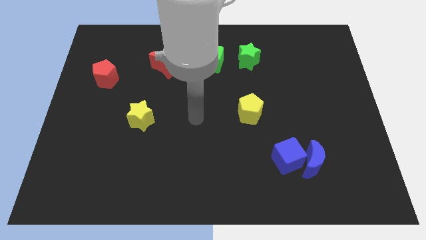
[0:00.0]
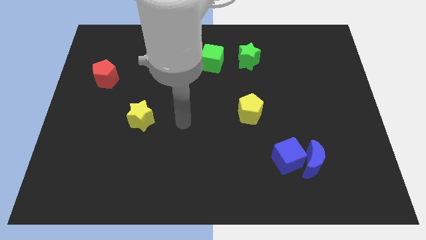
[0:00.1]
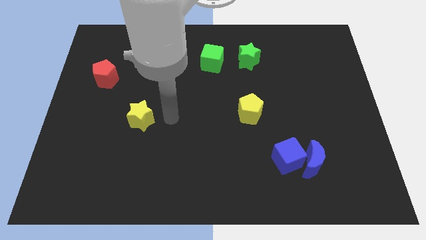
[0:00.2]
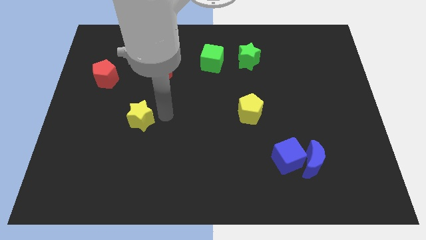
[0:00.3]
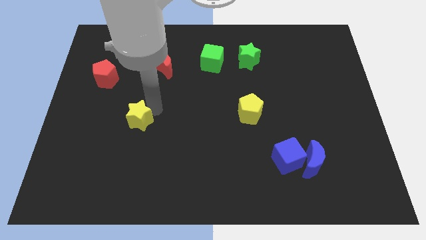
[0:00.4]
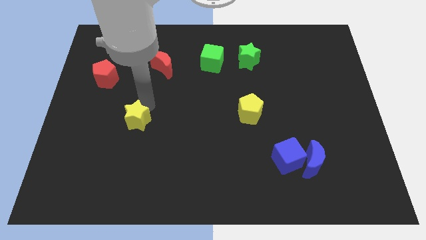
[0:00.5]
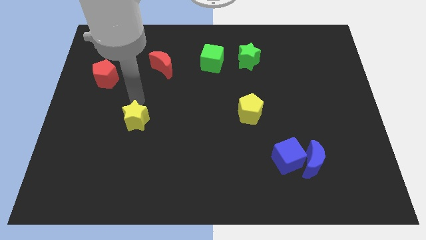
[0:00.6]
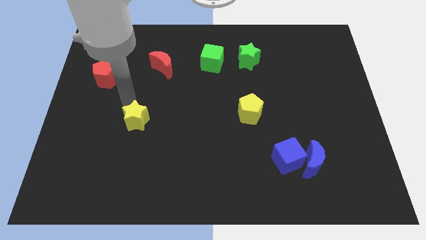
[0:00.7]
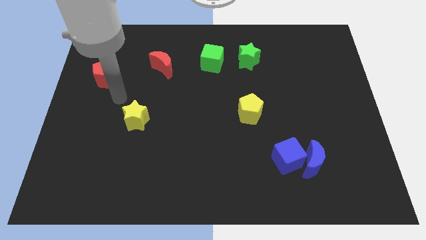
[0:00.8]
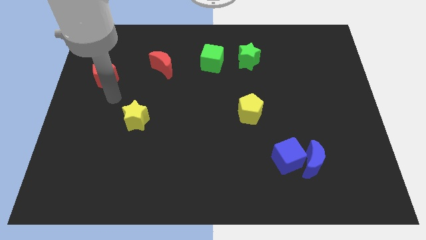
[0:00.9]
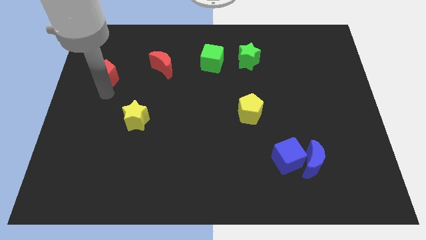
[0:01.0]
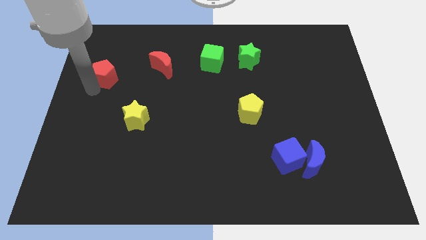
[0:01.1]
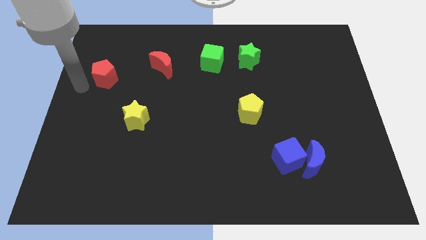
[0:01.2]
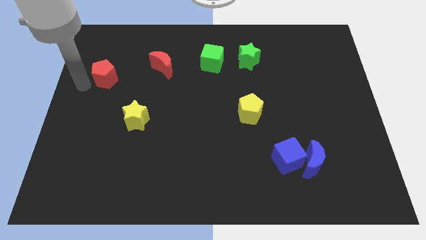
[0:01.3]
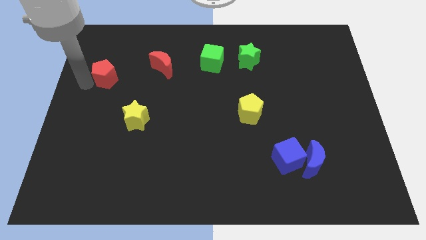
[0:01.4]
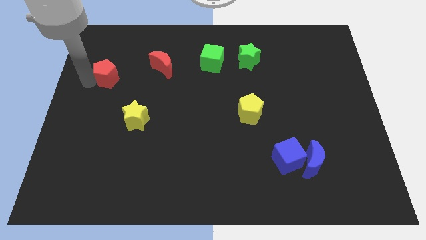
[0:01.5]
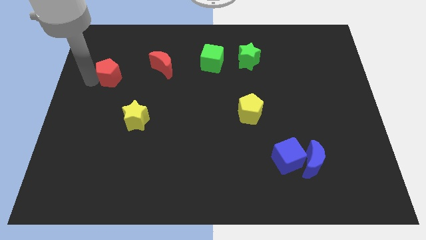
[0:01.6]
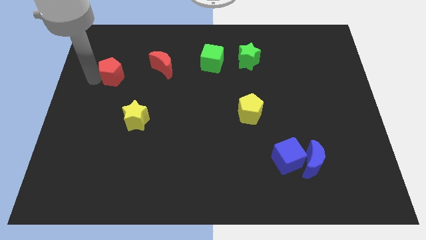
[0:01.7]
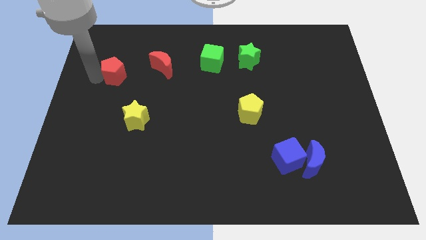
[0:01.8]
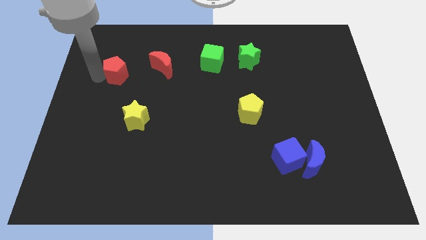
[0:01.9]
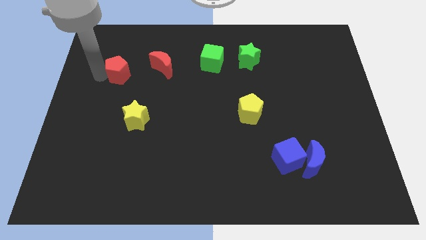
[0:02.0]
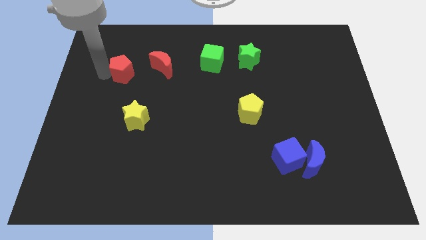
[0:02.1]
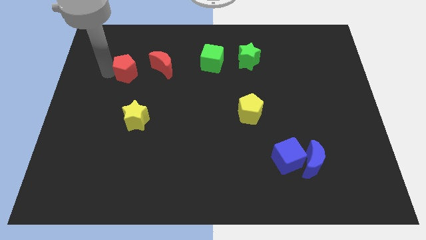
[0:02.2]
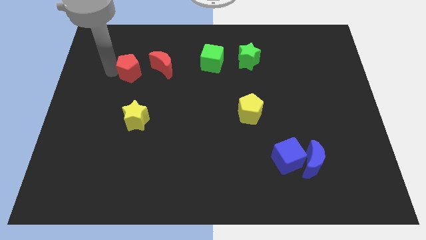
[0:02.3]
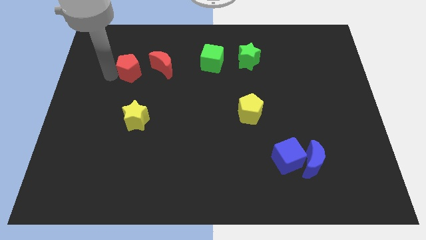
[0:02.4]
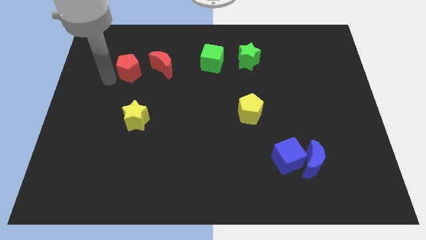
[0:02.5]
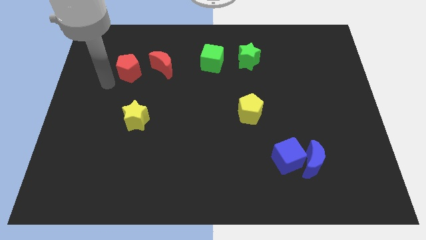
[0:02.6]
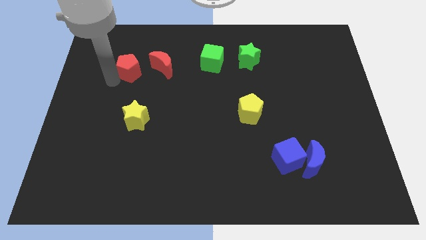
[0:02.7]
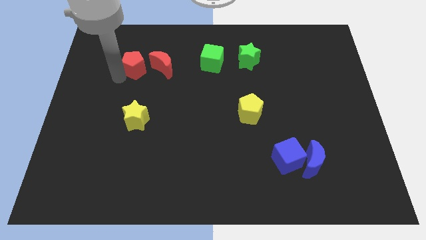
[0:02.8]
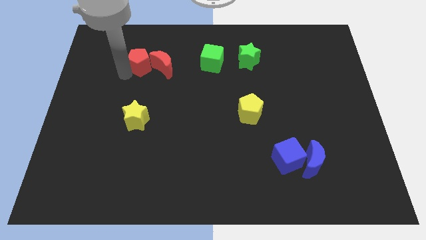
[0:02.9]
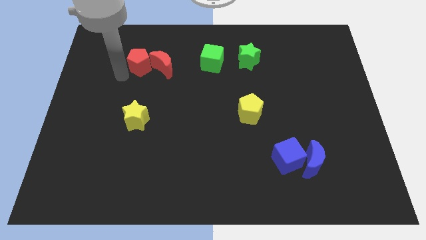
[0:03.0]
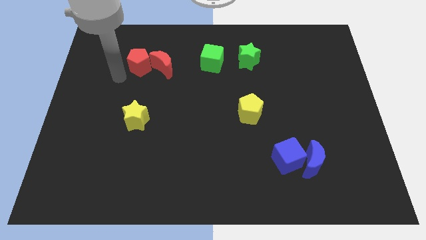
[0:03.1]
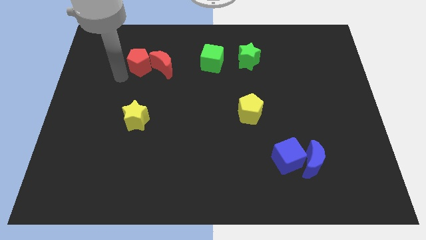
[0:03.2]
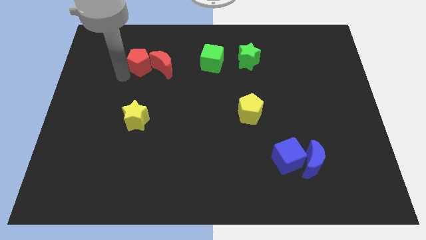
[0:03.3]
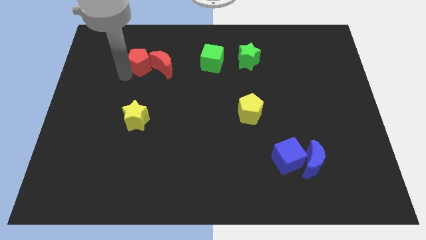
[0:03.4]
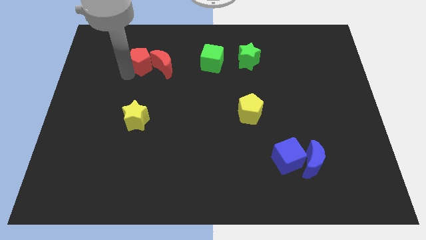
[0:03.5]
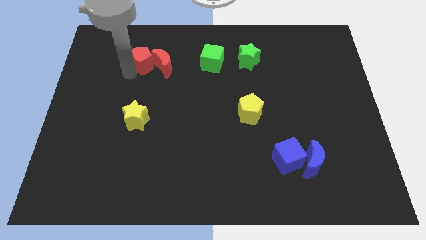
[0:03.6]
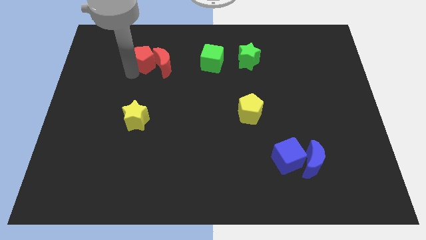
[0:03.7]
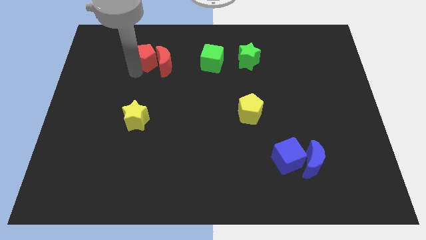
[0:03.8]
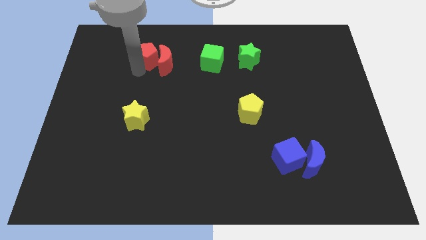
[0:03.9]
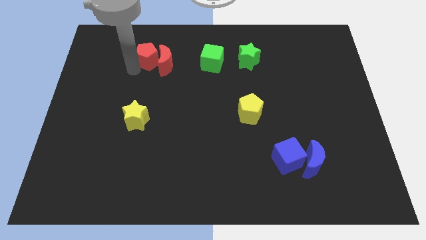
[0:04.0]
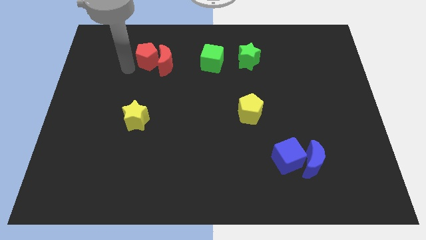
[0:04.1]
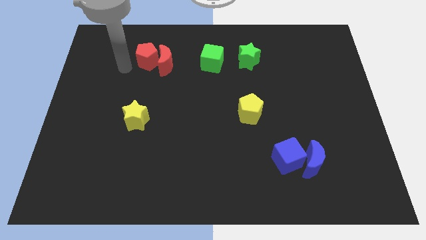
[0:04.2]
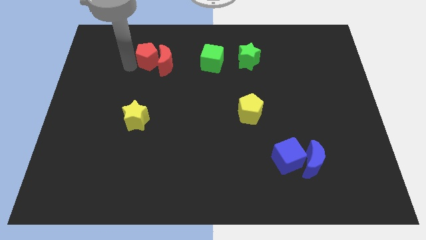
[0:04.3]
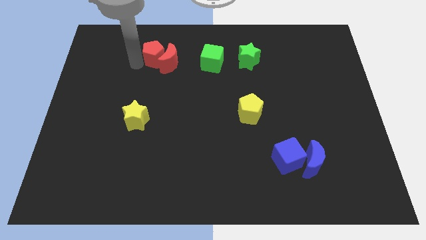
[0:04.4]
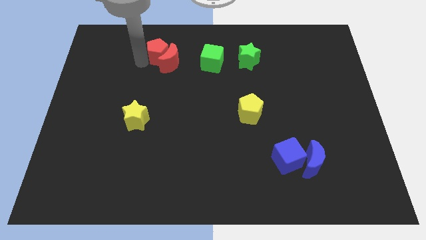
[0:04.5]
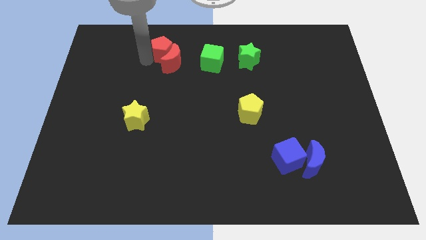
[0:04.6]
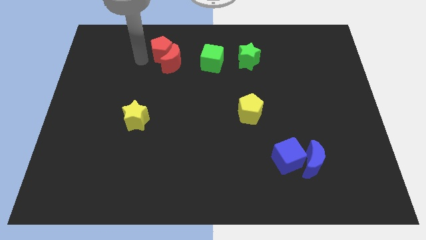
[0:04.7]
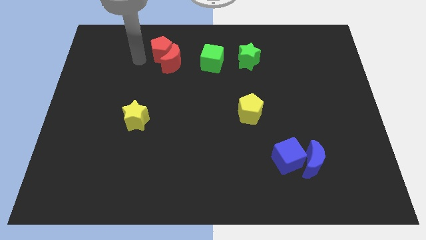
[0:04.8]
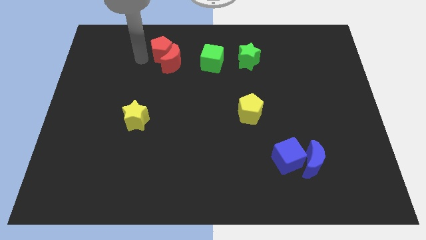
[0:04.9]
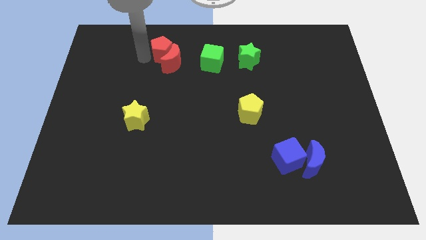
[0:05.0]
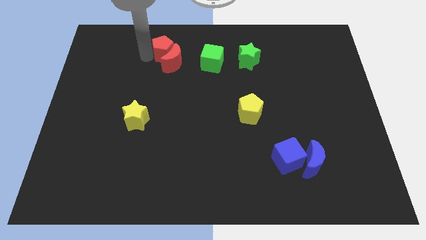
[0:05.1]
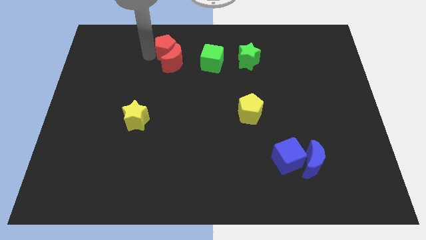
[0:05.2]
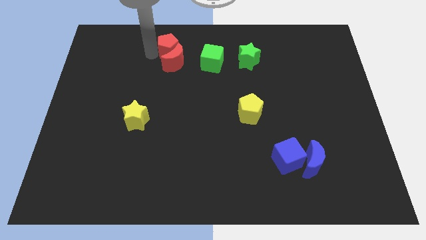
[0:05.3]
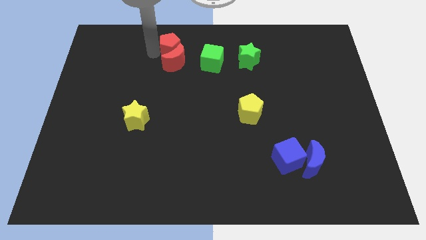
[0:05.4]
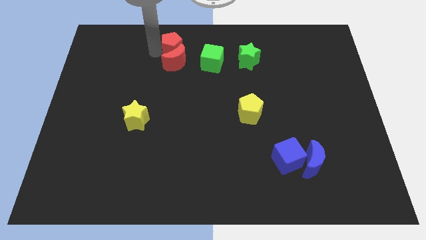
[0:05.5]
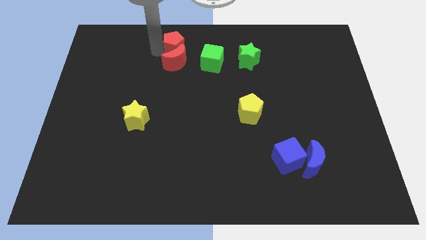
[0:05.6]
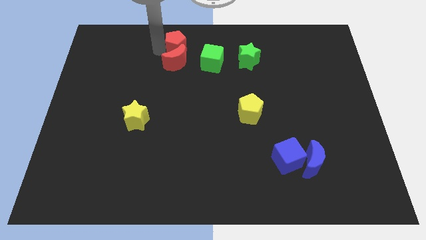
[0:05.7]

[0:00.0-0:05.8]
move the red pentagon to the top
